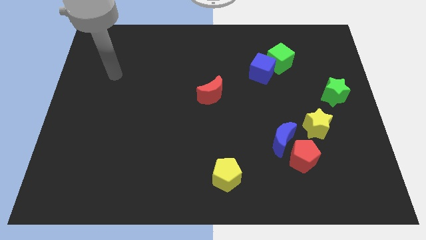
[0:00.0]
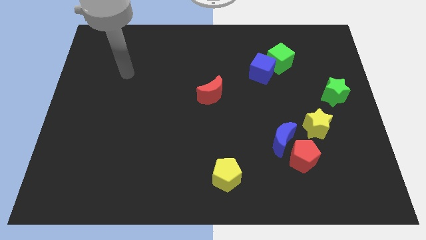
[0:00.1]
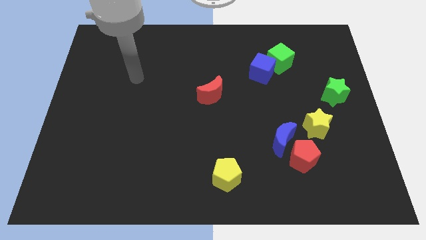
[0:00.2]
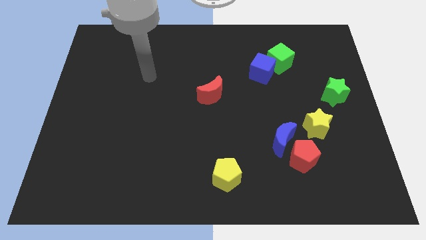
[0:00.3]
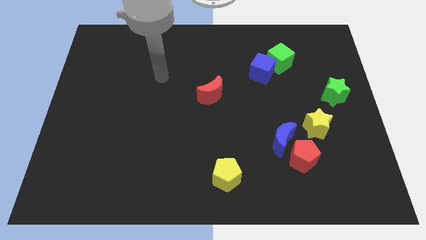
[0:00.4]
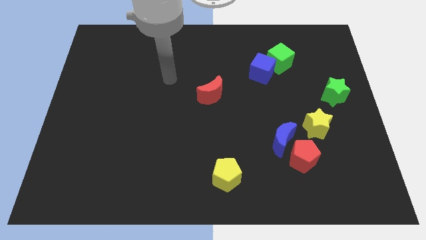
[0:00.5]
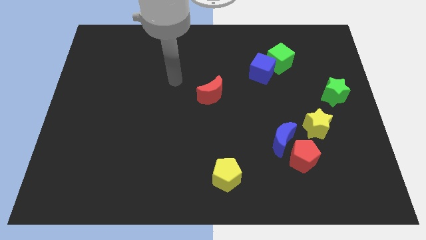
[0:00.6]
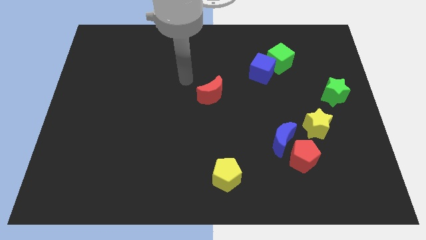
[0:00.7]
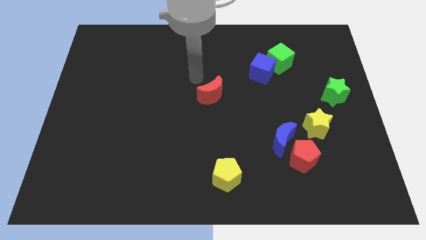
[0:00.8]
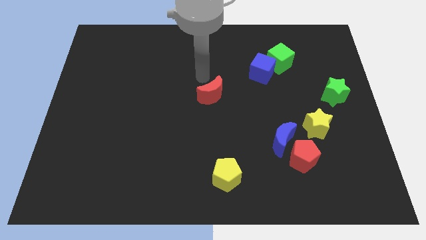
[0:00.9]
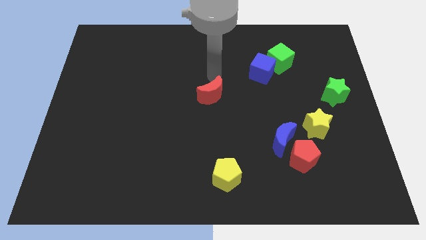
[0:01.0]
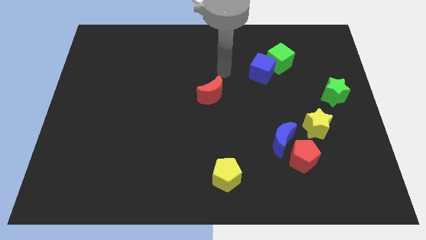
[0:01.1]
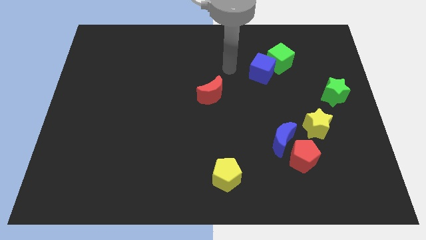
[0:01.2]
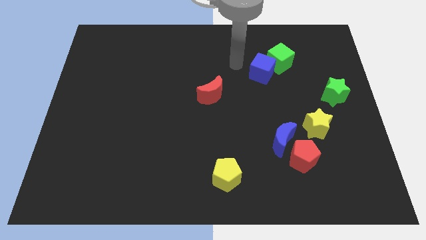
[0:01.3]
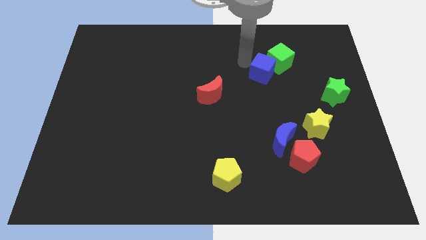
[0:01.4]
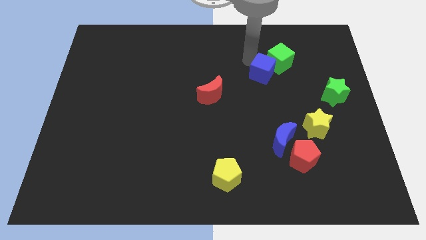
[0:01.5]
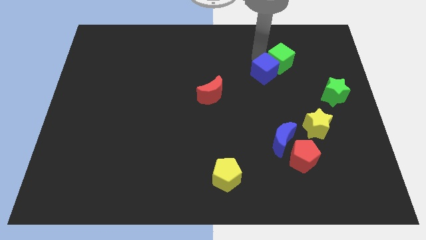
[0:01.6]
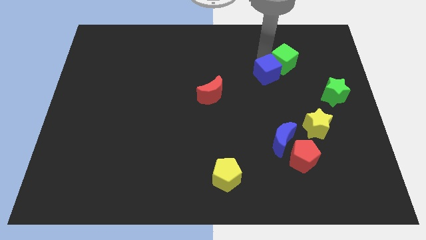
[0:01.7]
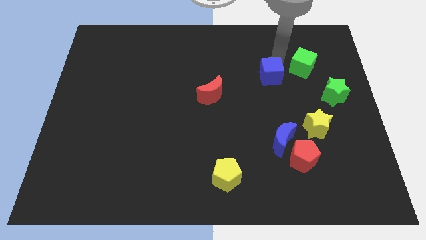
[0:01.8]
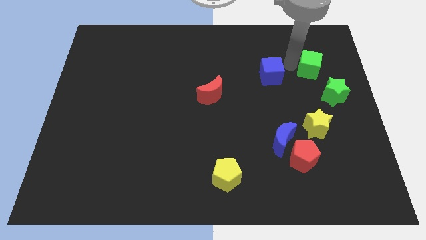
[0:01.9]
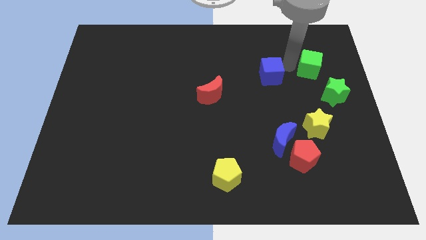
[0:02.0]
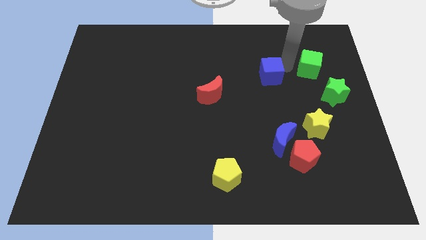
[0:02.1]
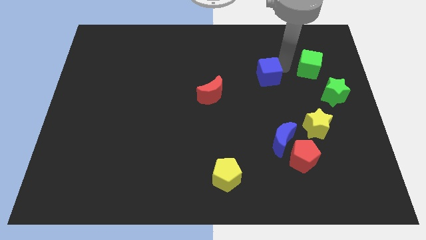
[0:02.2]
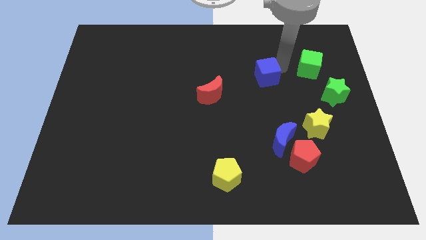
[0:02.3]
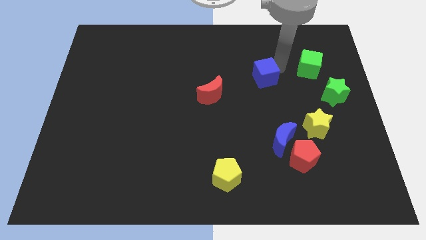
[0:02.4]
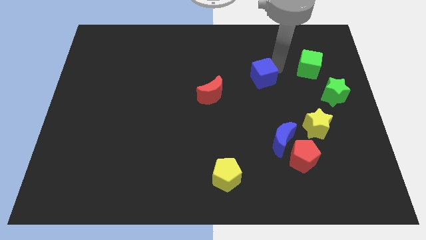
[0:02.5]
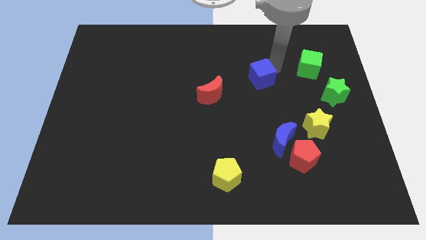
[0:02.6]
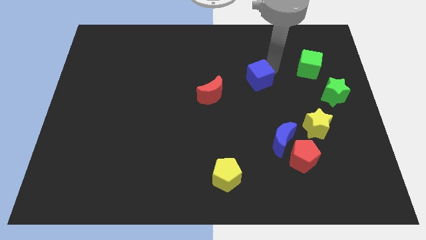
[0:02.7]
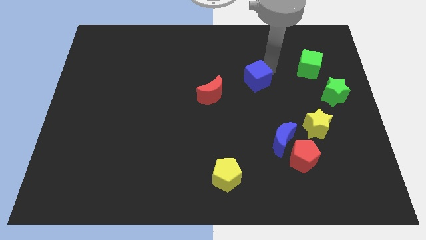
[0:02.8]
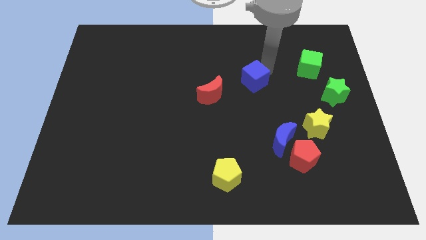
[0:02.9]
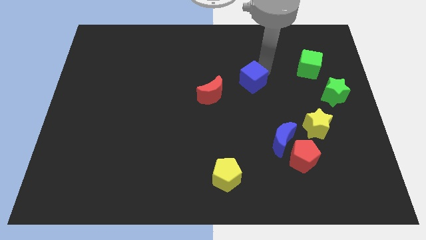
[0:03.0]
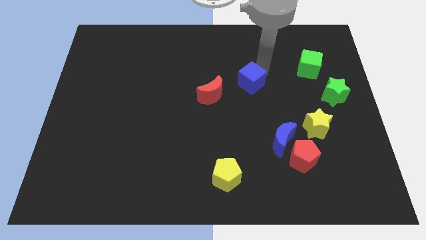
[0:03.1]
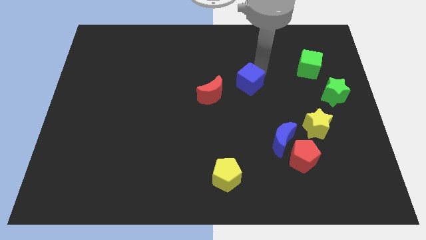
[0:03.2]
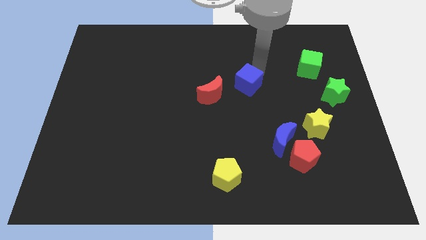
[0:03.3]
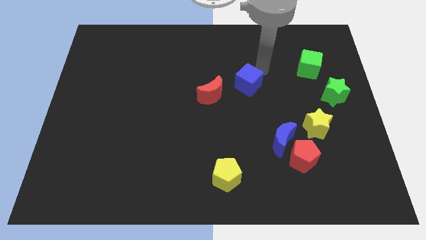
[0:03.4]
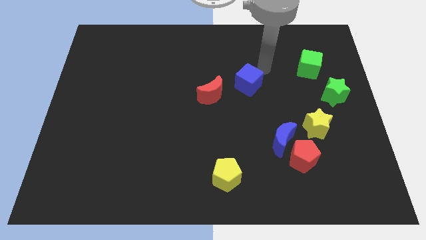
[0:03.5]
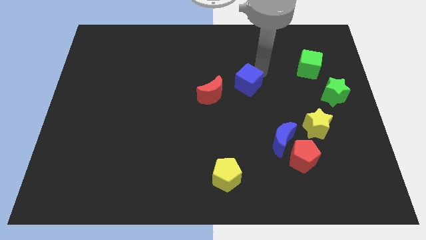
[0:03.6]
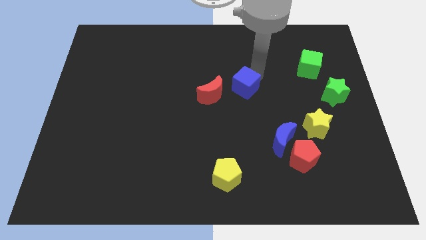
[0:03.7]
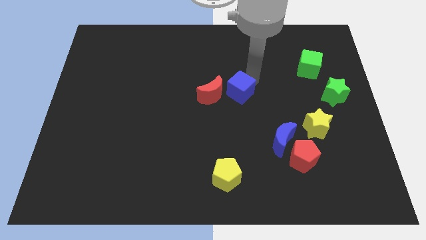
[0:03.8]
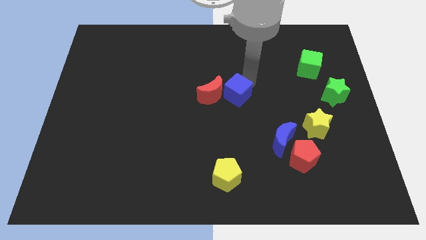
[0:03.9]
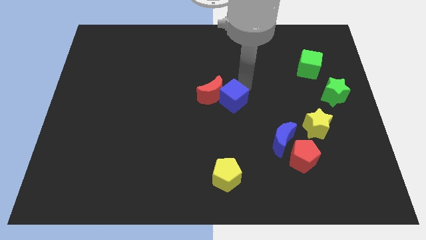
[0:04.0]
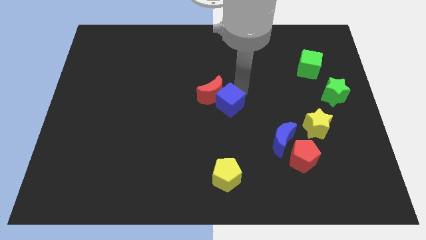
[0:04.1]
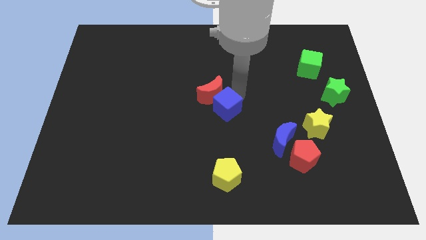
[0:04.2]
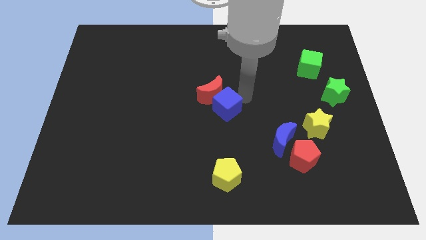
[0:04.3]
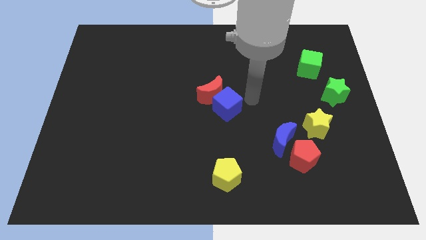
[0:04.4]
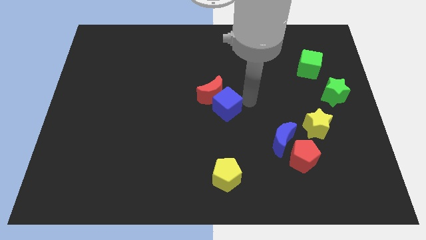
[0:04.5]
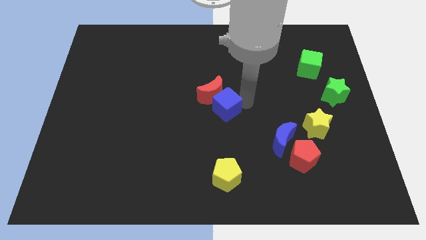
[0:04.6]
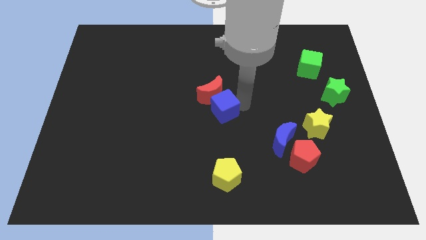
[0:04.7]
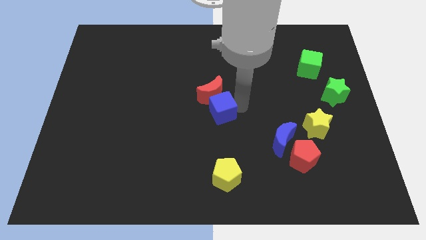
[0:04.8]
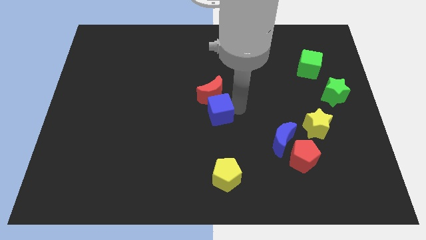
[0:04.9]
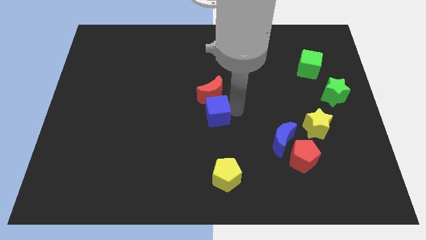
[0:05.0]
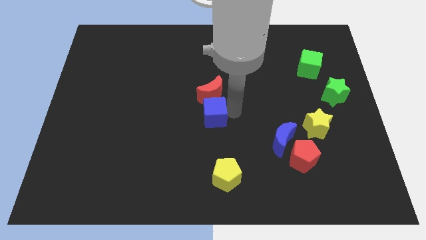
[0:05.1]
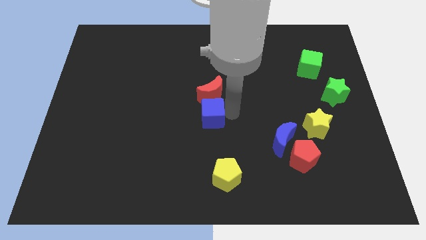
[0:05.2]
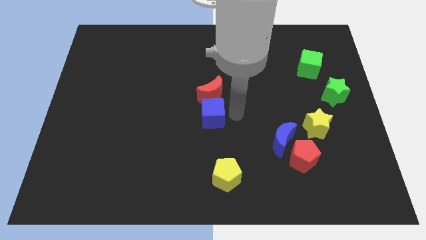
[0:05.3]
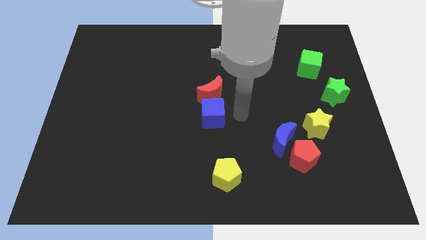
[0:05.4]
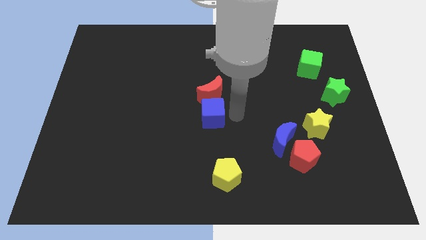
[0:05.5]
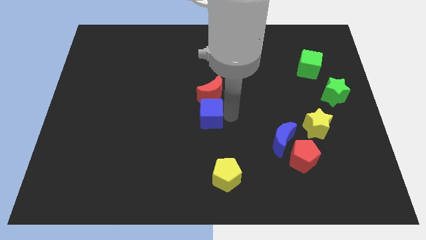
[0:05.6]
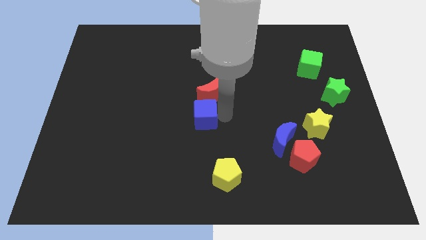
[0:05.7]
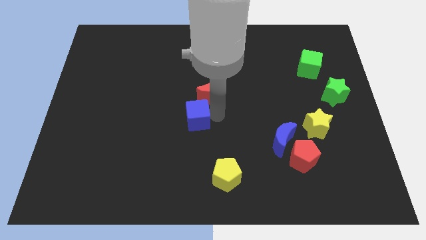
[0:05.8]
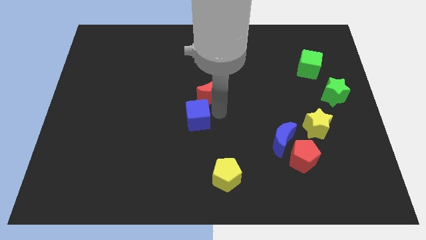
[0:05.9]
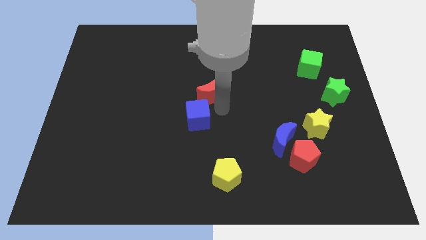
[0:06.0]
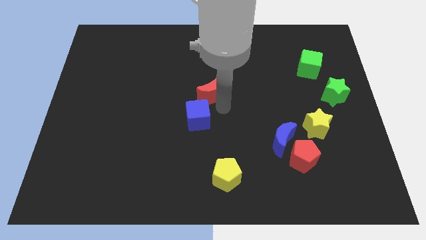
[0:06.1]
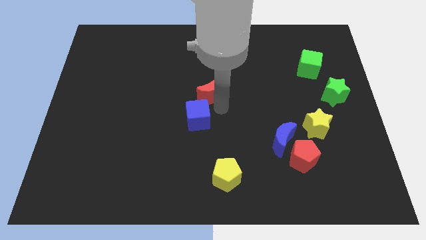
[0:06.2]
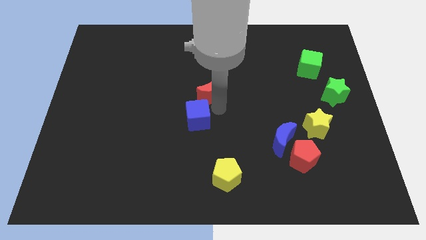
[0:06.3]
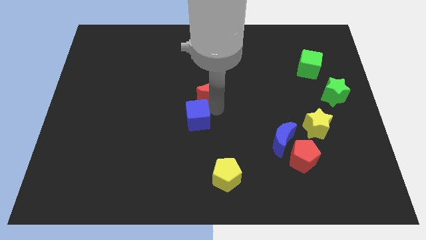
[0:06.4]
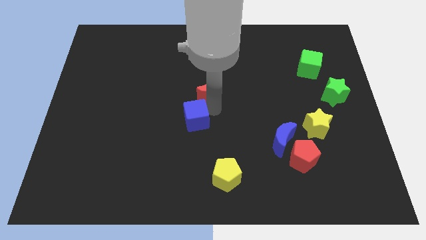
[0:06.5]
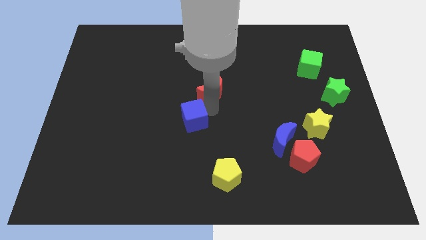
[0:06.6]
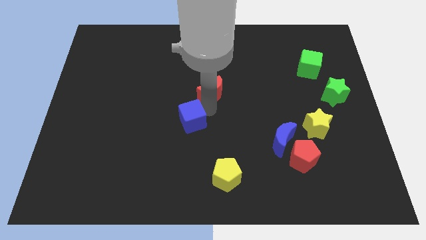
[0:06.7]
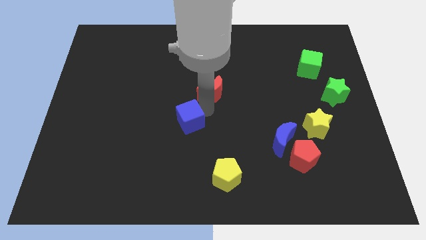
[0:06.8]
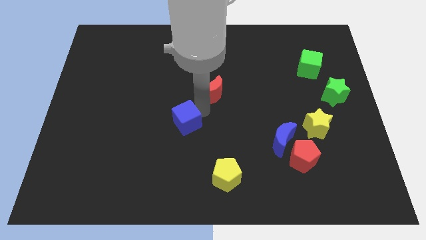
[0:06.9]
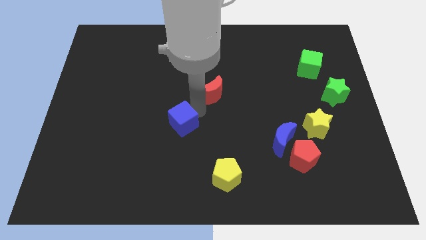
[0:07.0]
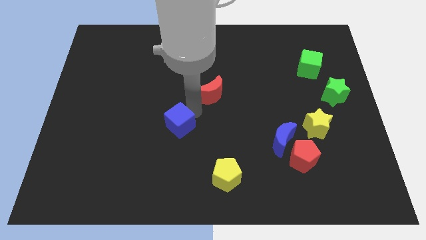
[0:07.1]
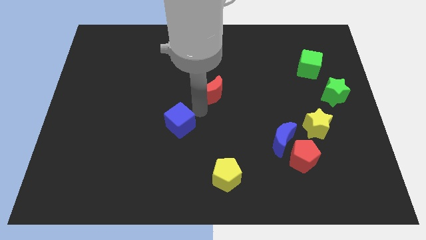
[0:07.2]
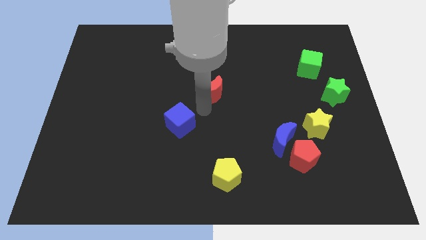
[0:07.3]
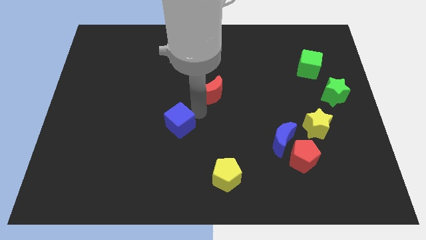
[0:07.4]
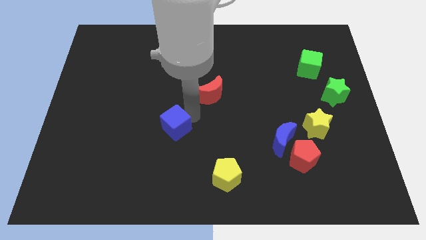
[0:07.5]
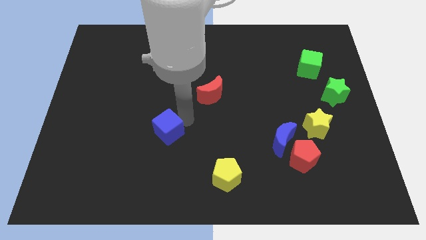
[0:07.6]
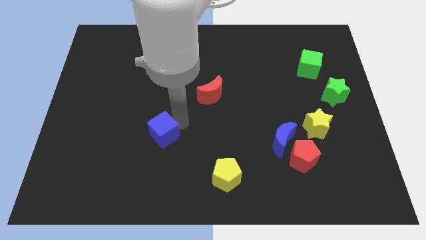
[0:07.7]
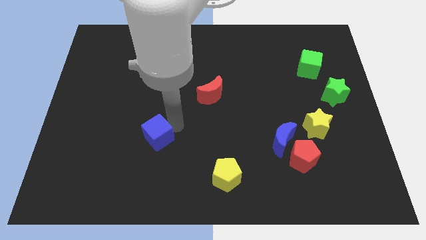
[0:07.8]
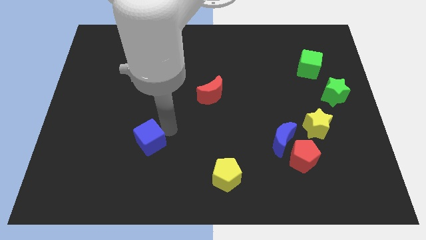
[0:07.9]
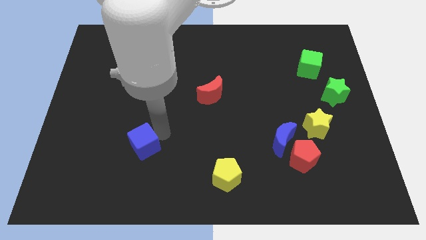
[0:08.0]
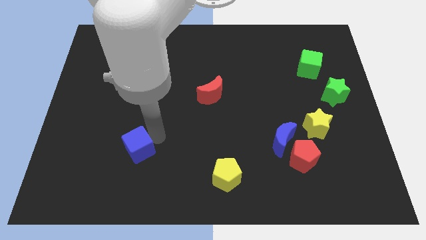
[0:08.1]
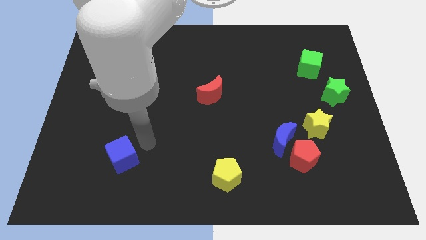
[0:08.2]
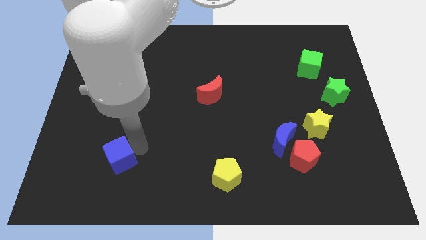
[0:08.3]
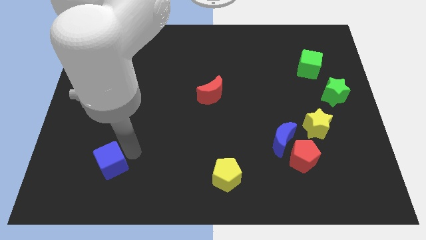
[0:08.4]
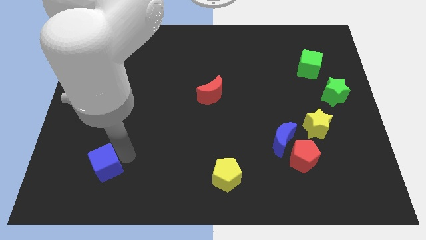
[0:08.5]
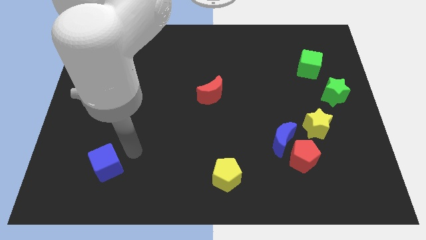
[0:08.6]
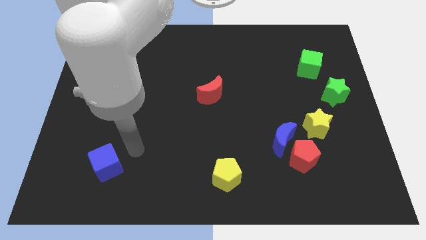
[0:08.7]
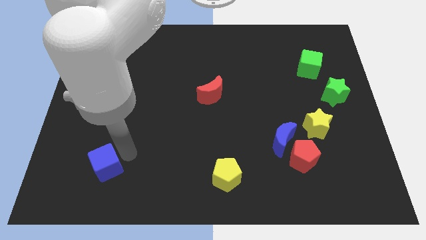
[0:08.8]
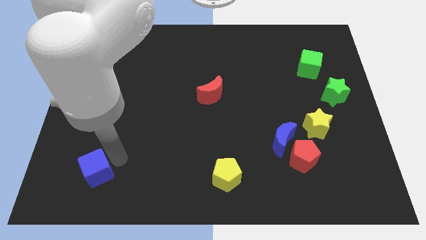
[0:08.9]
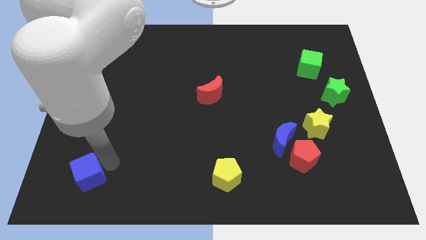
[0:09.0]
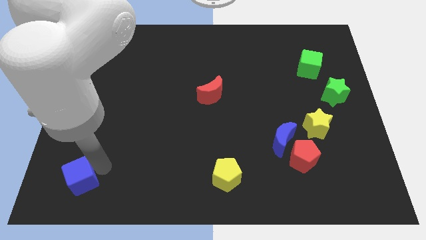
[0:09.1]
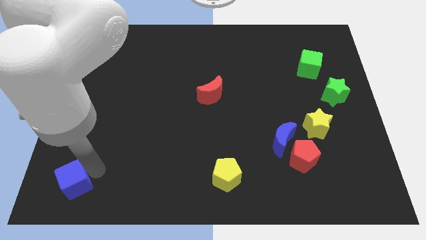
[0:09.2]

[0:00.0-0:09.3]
put the blue cube to the bottom left of the board
